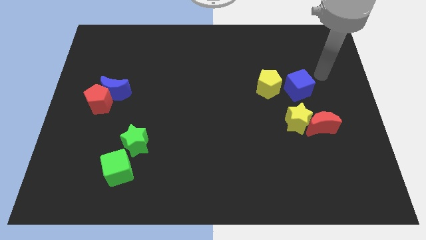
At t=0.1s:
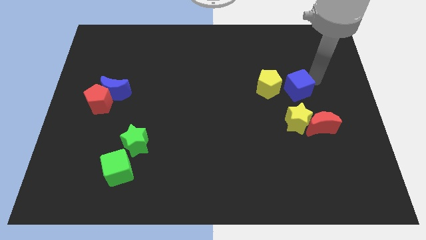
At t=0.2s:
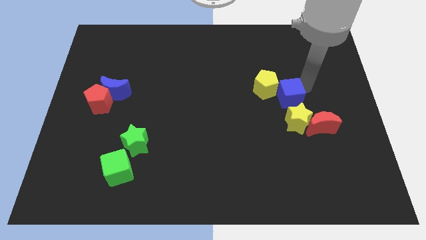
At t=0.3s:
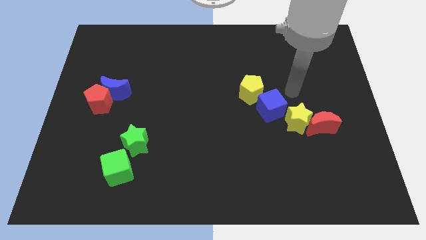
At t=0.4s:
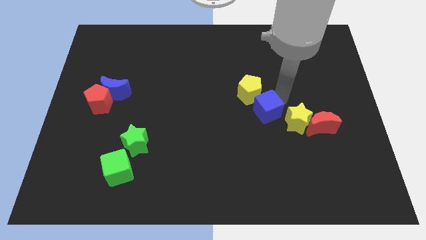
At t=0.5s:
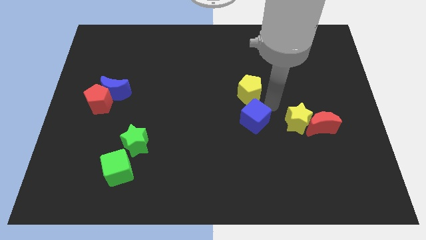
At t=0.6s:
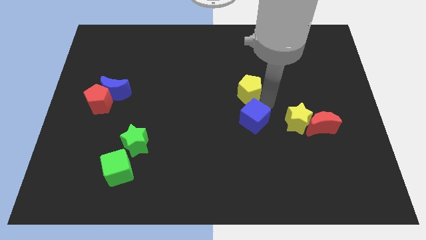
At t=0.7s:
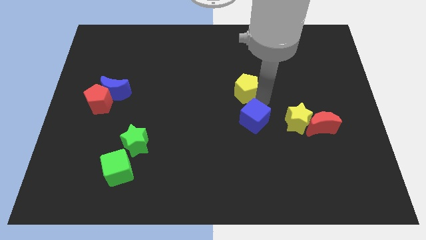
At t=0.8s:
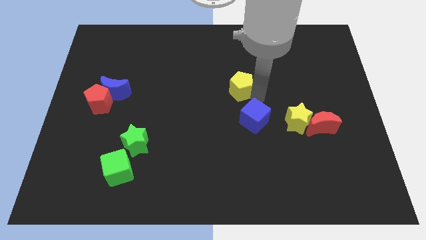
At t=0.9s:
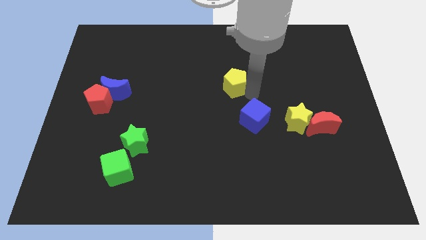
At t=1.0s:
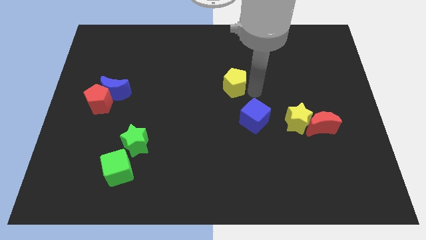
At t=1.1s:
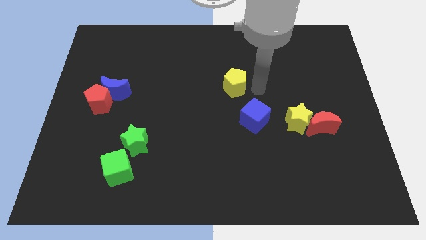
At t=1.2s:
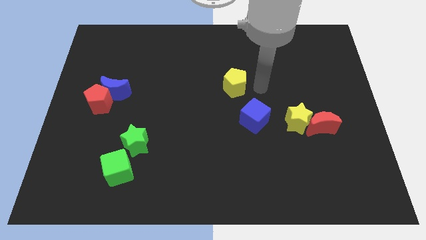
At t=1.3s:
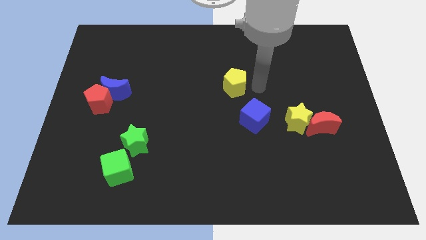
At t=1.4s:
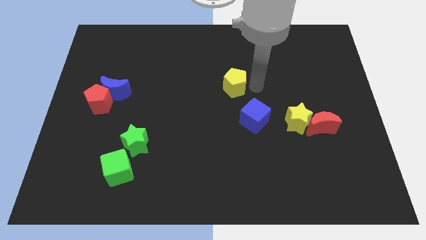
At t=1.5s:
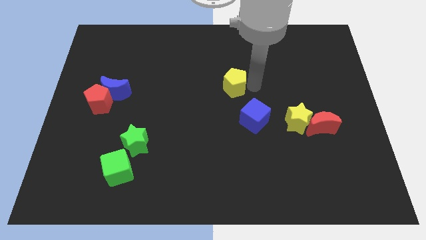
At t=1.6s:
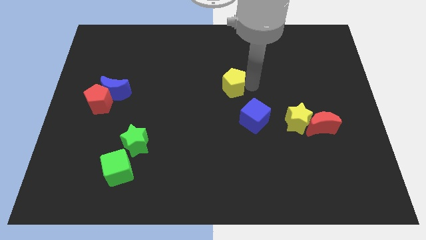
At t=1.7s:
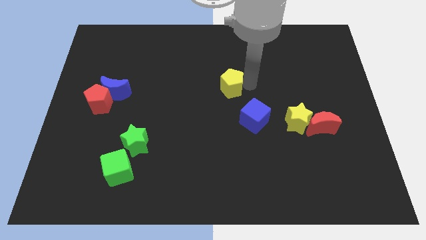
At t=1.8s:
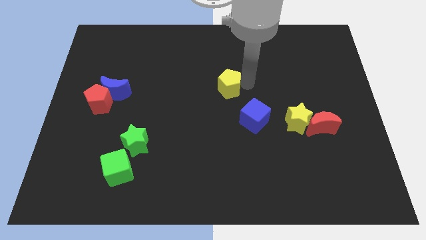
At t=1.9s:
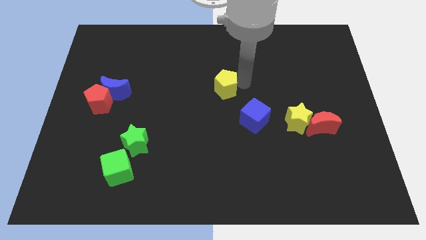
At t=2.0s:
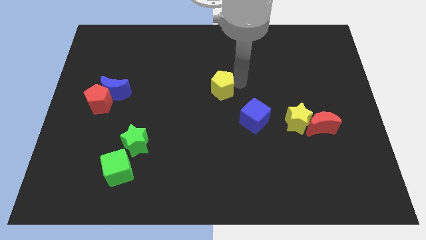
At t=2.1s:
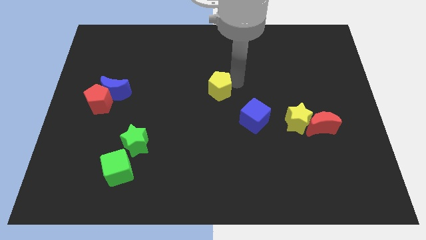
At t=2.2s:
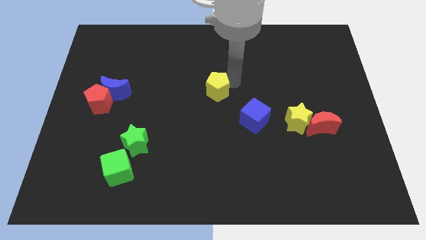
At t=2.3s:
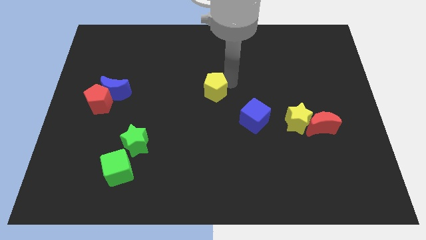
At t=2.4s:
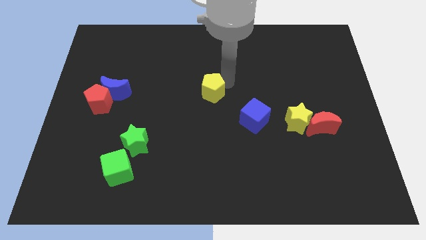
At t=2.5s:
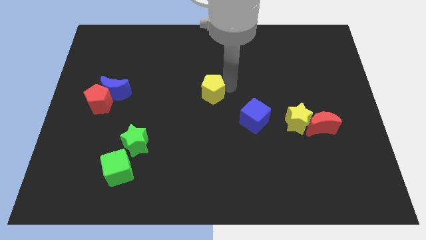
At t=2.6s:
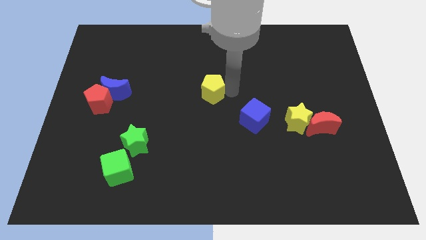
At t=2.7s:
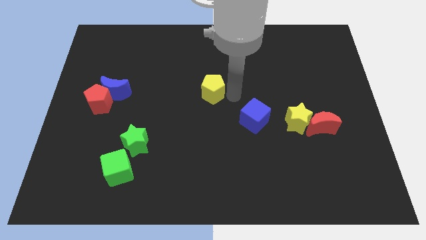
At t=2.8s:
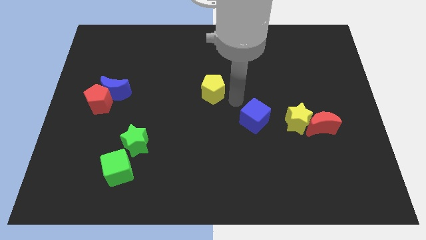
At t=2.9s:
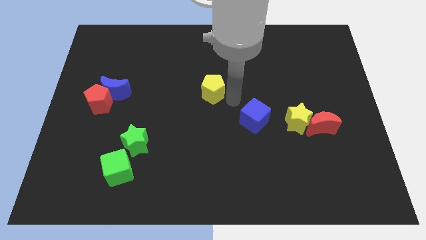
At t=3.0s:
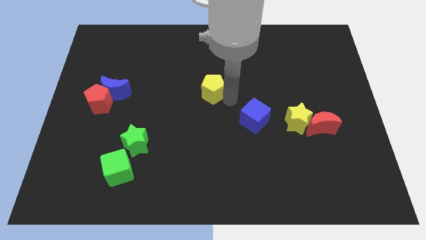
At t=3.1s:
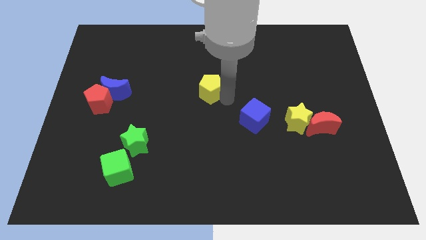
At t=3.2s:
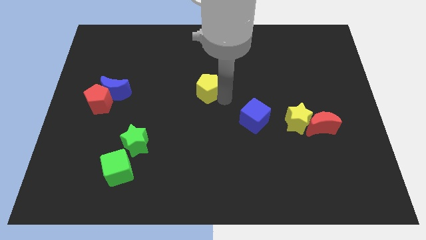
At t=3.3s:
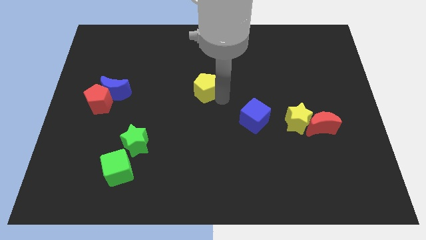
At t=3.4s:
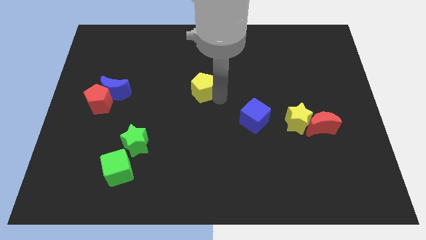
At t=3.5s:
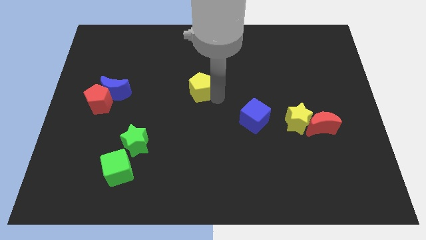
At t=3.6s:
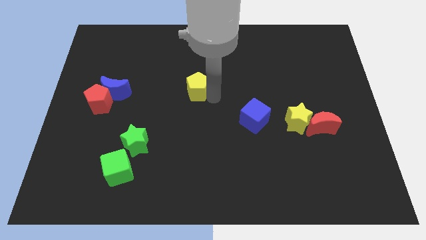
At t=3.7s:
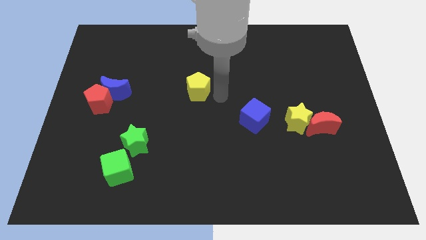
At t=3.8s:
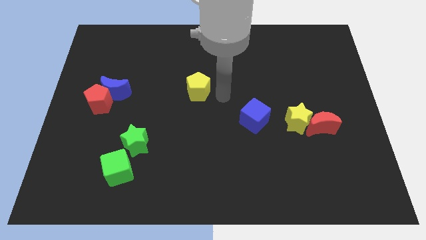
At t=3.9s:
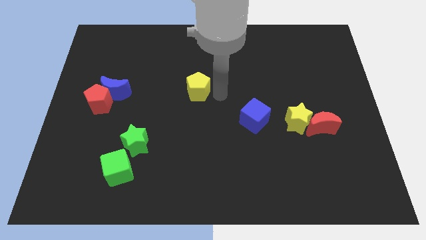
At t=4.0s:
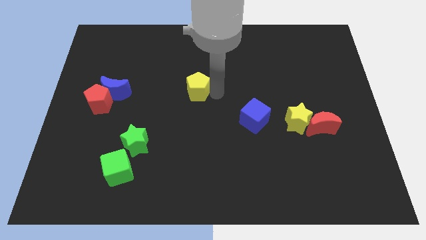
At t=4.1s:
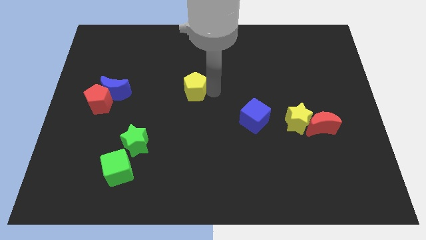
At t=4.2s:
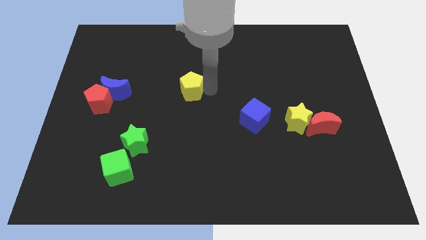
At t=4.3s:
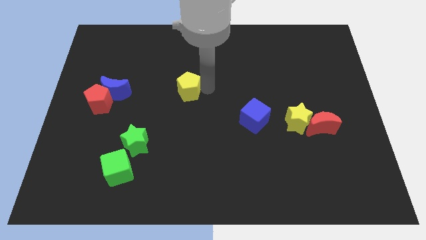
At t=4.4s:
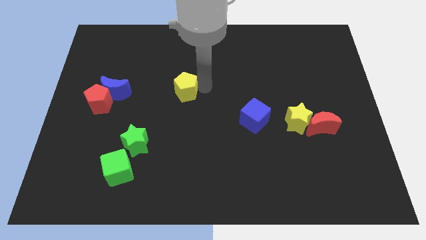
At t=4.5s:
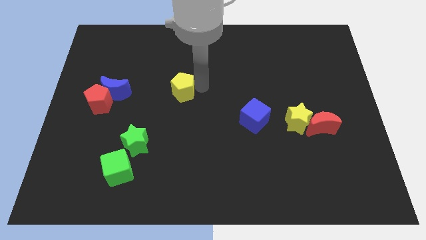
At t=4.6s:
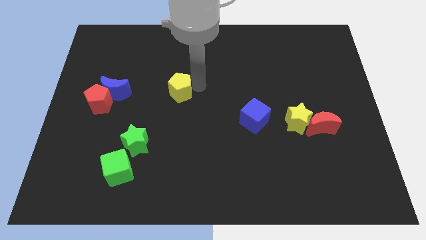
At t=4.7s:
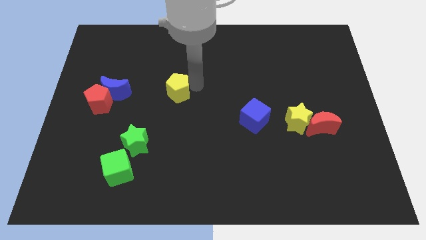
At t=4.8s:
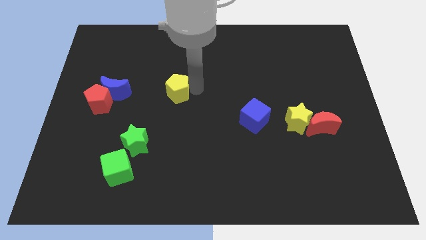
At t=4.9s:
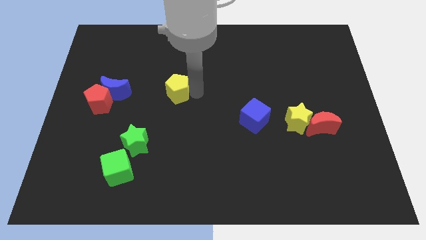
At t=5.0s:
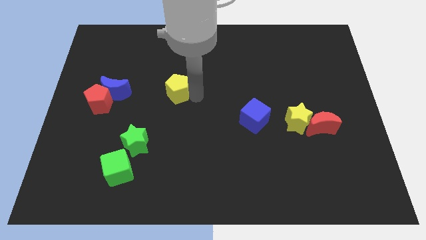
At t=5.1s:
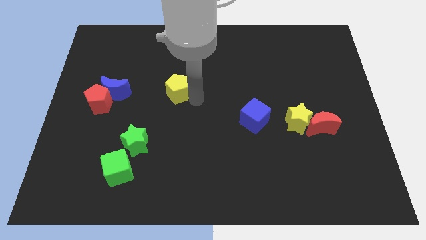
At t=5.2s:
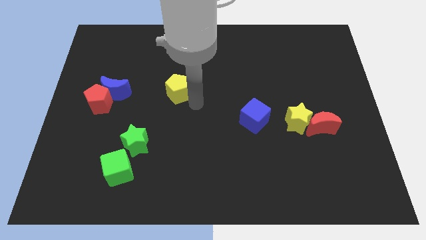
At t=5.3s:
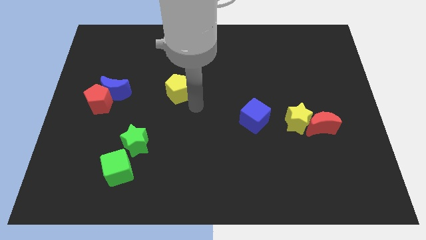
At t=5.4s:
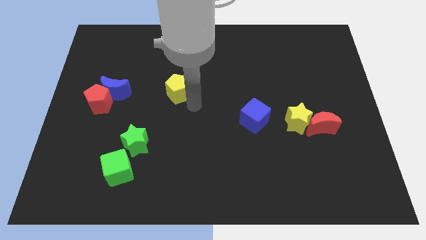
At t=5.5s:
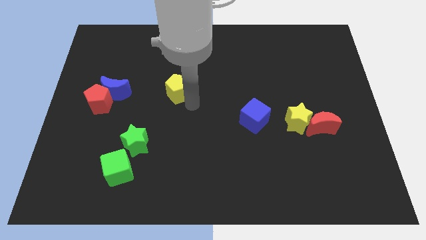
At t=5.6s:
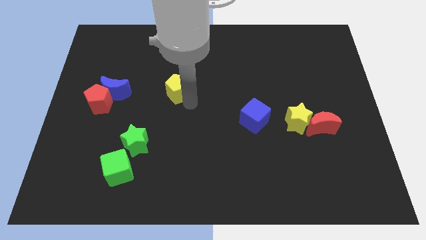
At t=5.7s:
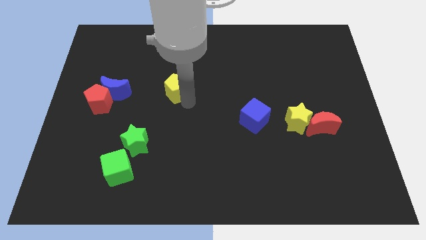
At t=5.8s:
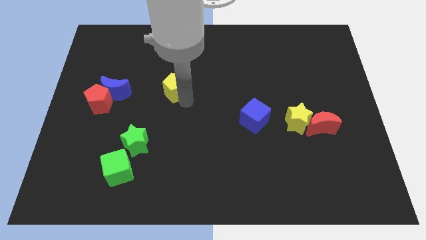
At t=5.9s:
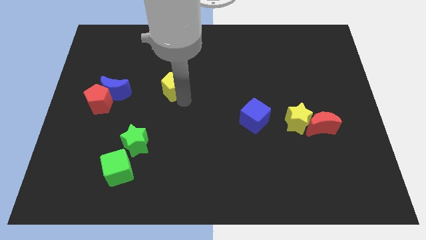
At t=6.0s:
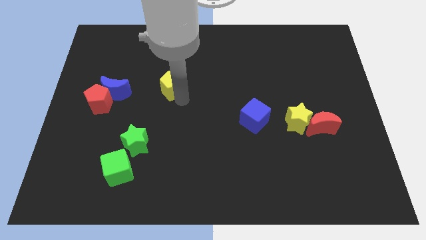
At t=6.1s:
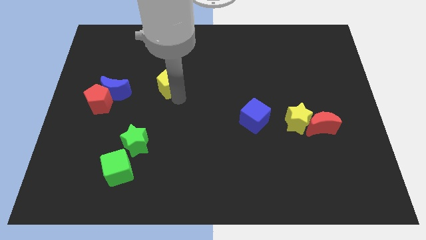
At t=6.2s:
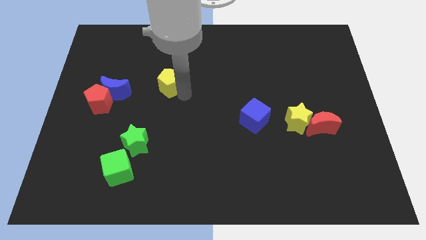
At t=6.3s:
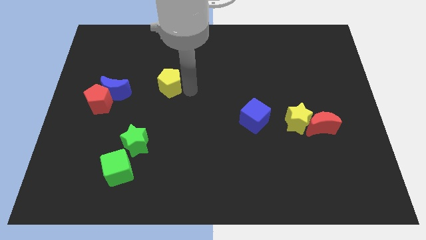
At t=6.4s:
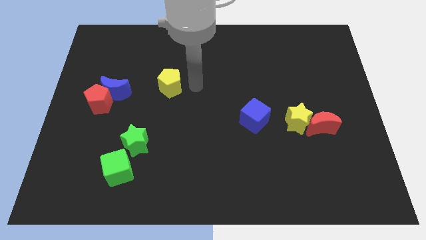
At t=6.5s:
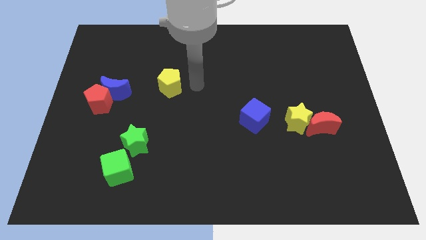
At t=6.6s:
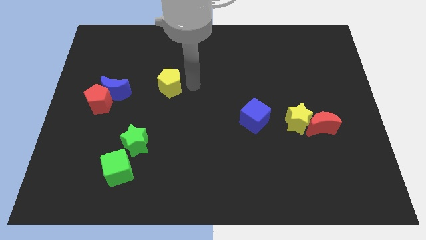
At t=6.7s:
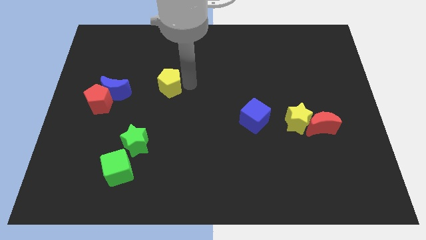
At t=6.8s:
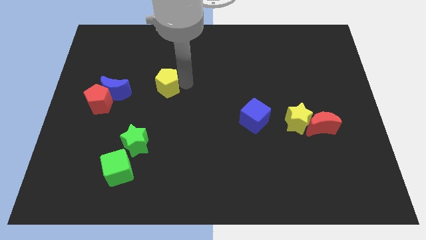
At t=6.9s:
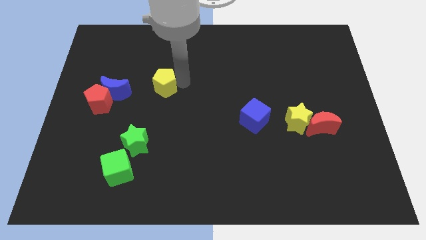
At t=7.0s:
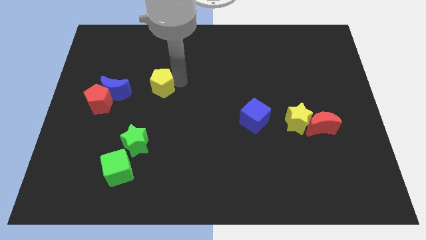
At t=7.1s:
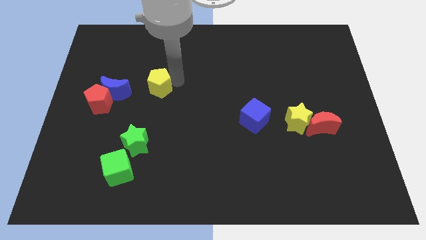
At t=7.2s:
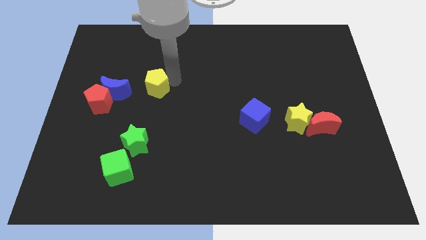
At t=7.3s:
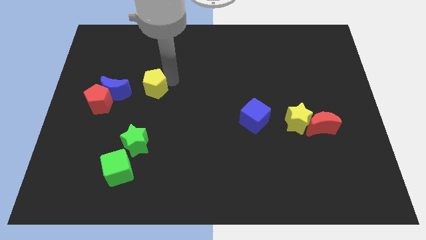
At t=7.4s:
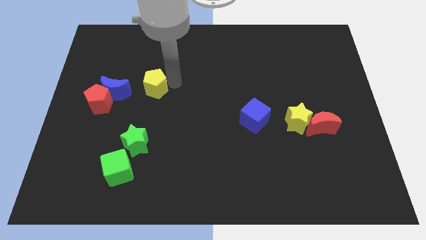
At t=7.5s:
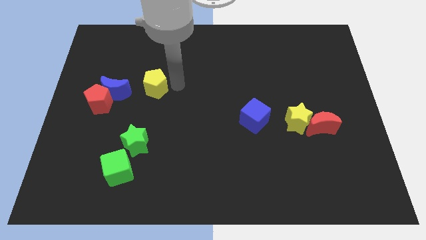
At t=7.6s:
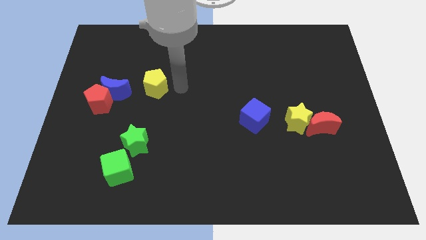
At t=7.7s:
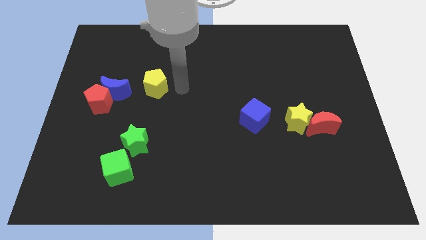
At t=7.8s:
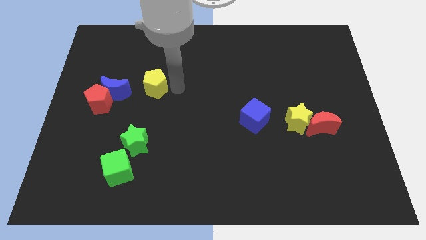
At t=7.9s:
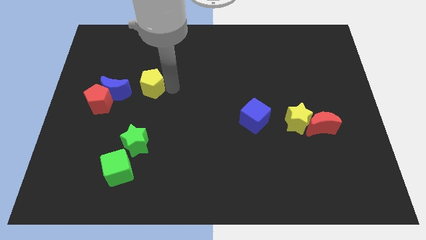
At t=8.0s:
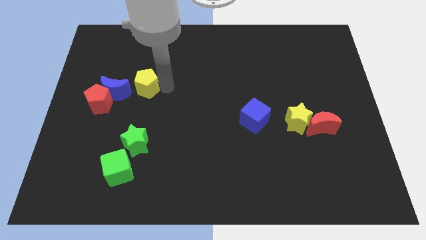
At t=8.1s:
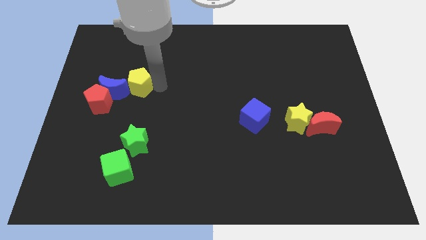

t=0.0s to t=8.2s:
move the yellow pentagon to the blue moon
